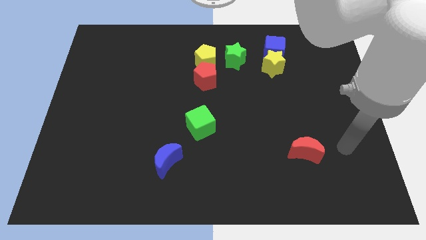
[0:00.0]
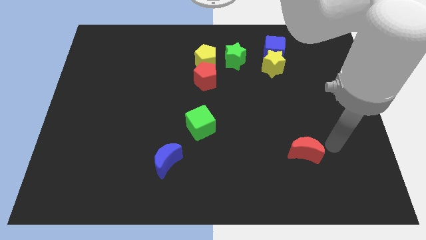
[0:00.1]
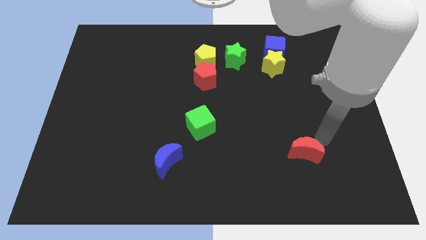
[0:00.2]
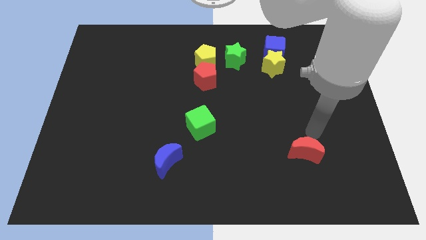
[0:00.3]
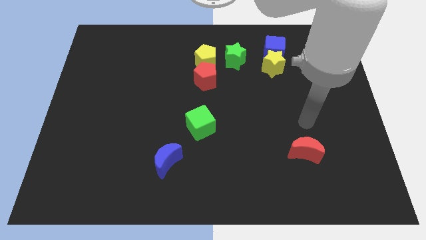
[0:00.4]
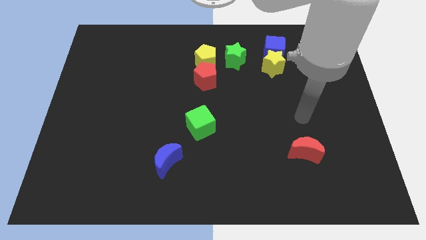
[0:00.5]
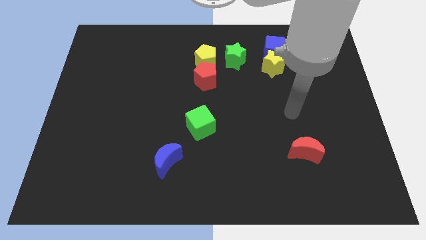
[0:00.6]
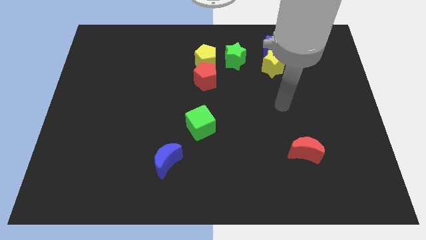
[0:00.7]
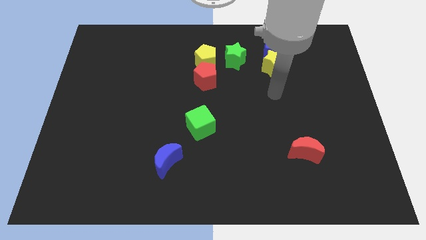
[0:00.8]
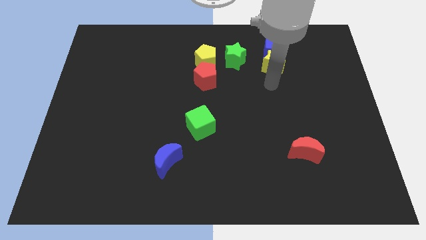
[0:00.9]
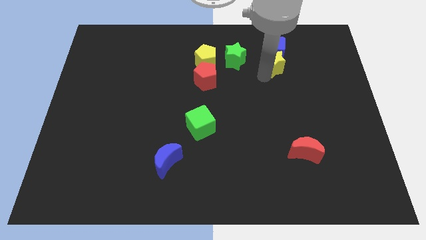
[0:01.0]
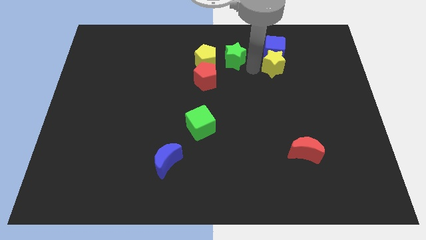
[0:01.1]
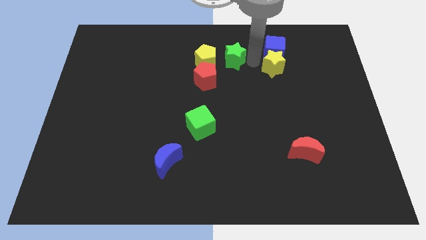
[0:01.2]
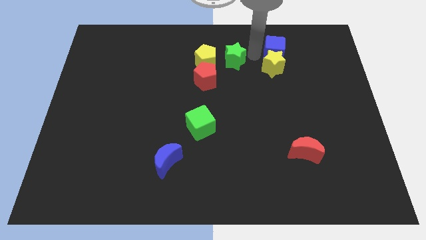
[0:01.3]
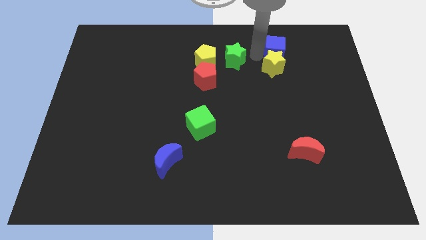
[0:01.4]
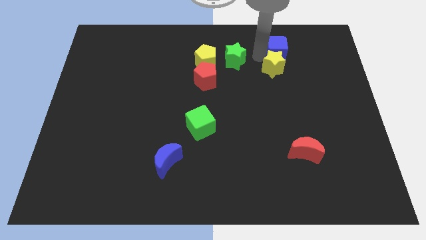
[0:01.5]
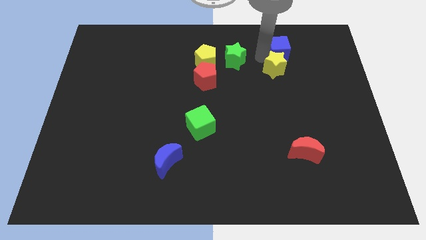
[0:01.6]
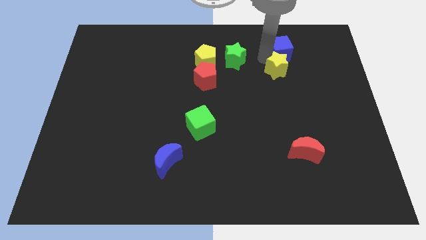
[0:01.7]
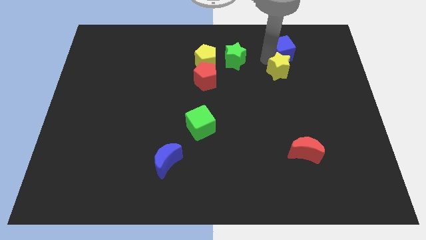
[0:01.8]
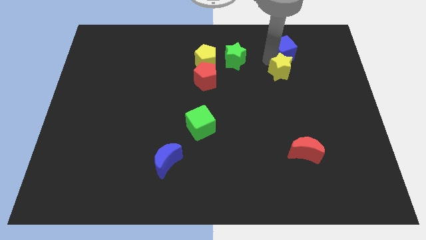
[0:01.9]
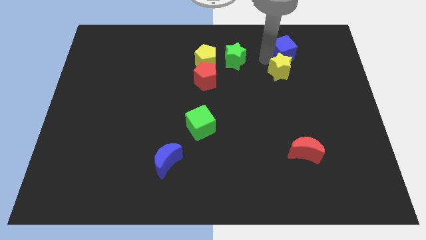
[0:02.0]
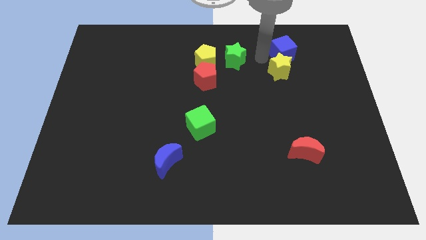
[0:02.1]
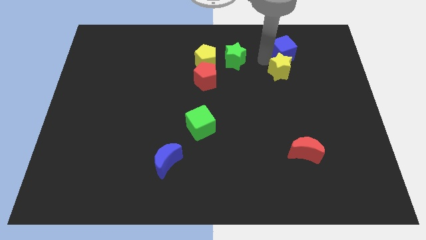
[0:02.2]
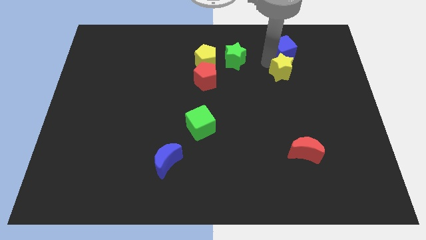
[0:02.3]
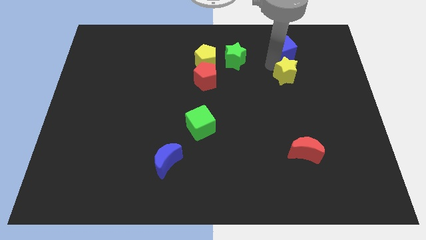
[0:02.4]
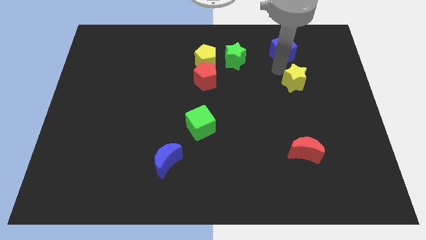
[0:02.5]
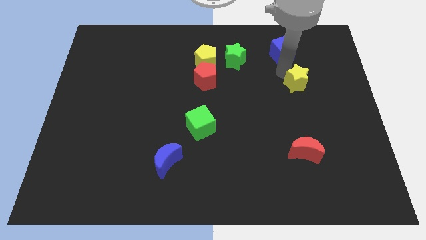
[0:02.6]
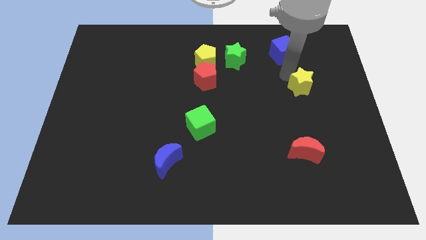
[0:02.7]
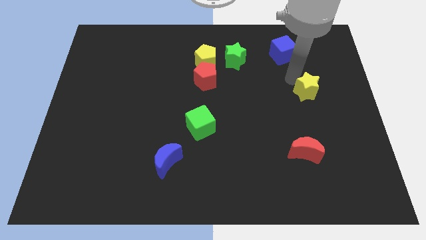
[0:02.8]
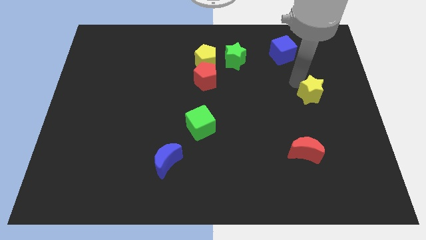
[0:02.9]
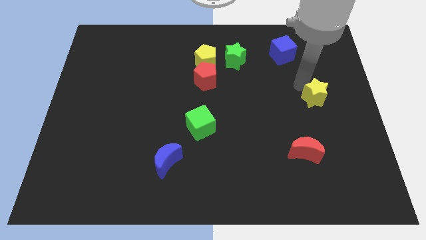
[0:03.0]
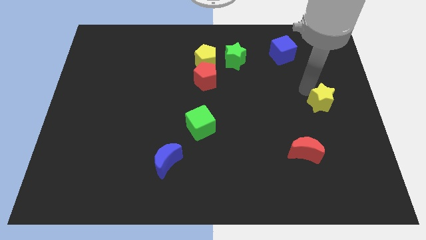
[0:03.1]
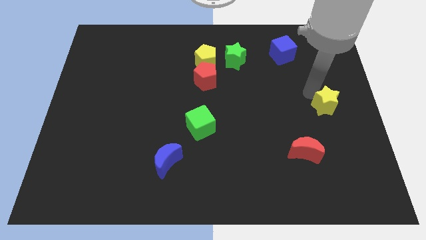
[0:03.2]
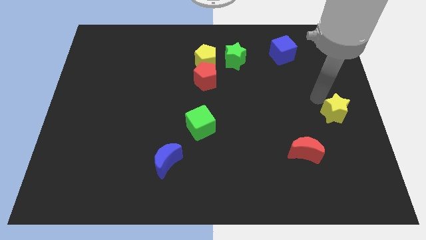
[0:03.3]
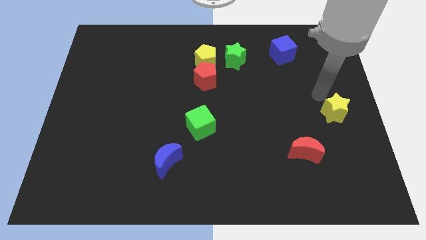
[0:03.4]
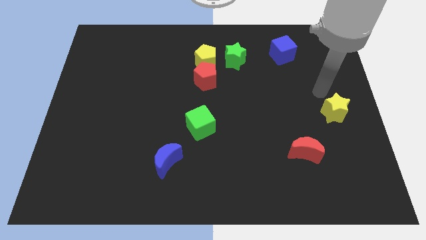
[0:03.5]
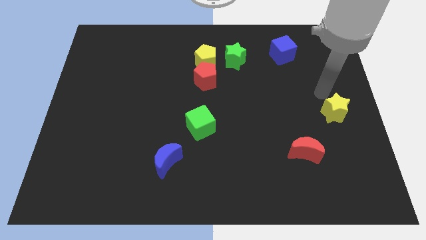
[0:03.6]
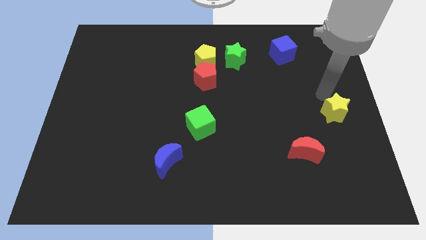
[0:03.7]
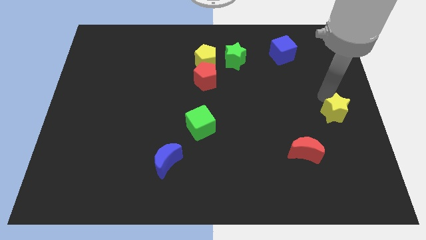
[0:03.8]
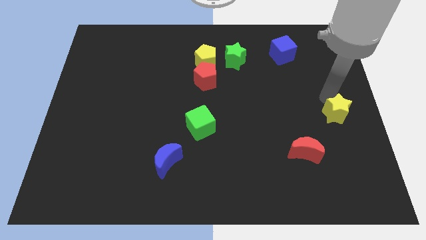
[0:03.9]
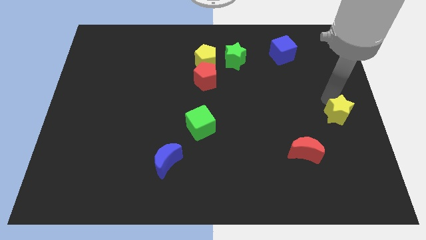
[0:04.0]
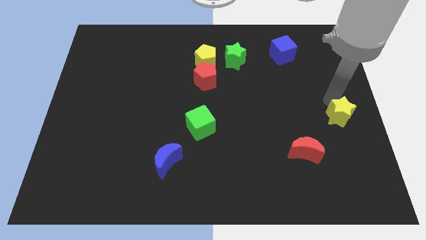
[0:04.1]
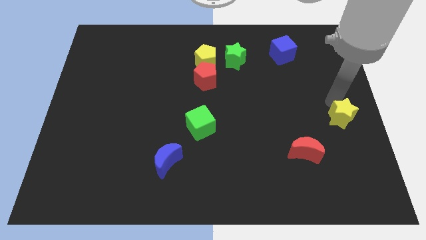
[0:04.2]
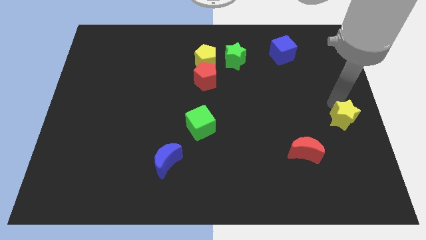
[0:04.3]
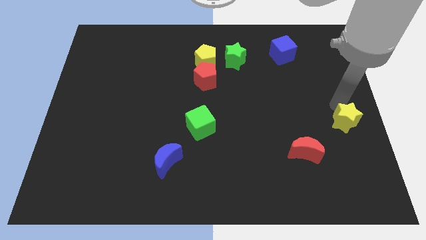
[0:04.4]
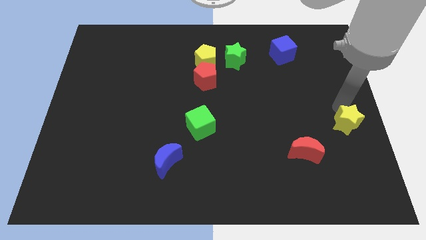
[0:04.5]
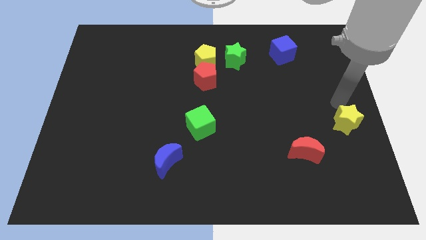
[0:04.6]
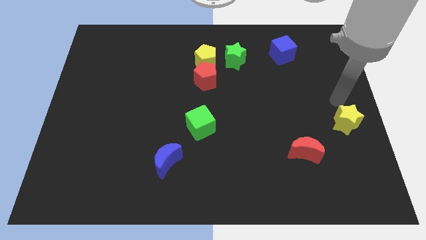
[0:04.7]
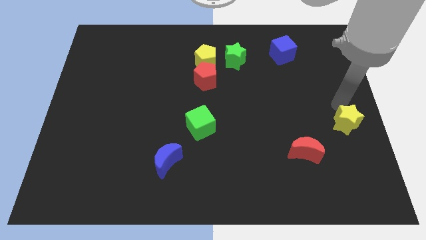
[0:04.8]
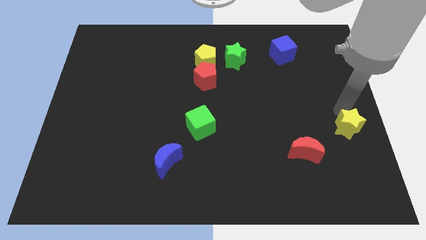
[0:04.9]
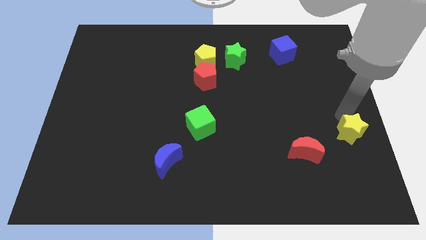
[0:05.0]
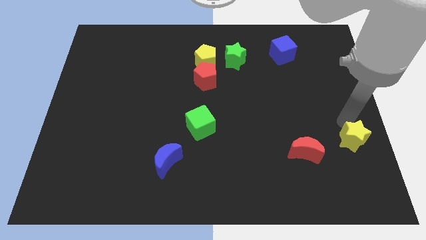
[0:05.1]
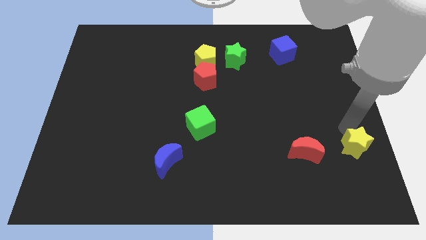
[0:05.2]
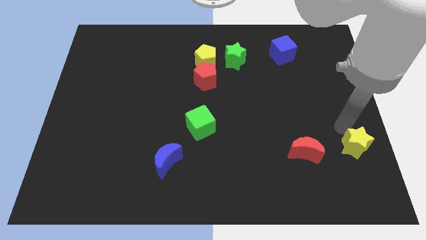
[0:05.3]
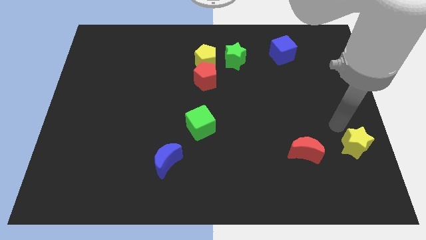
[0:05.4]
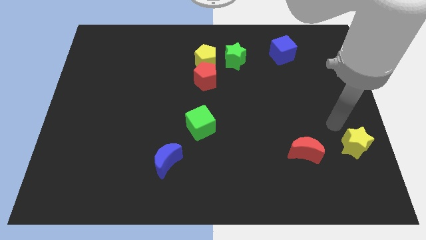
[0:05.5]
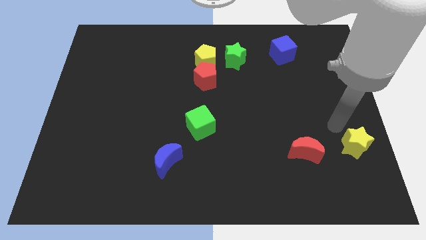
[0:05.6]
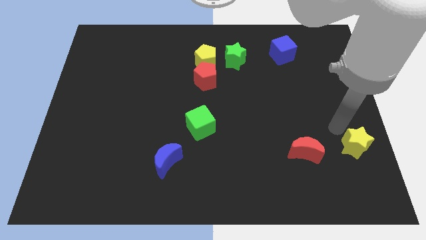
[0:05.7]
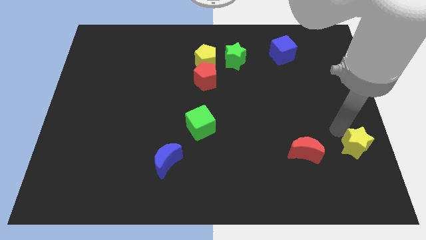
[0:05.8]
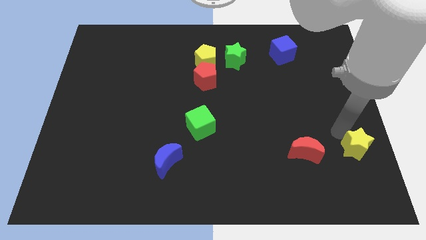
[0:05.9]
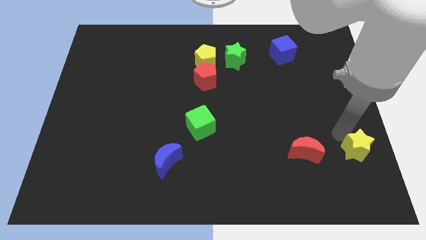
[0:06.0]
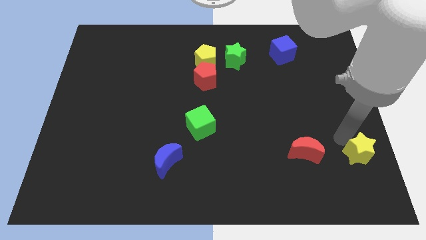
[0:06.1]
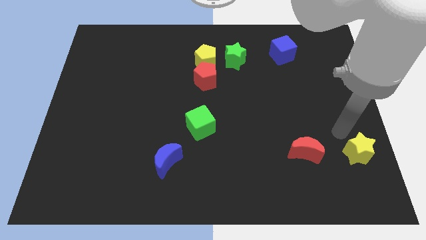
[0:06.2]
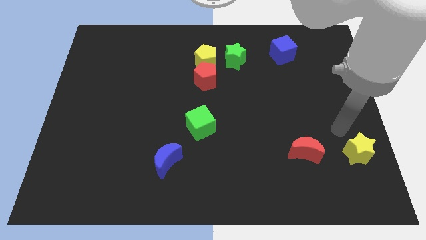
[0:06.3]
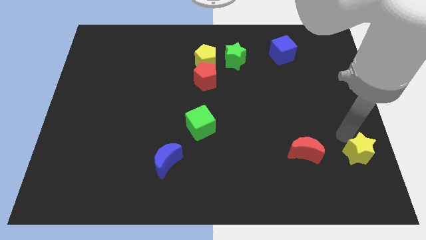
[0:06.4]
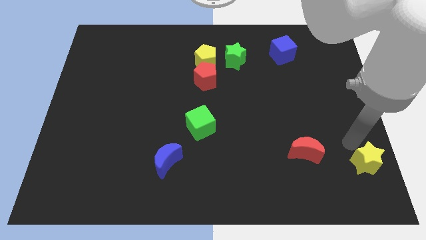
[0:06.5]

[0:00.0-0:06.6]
put the yellow star to the bottom right corner
